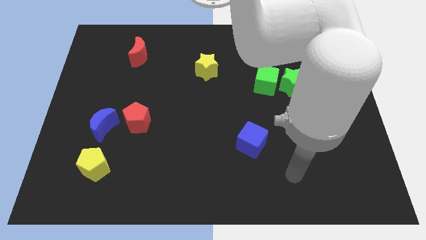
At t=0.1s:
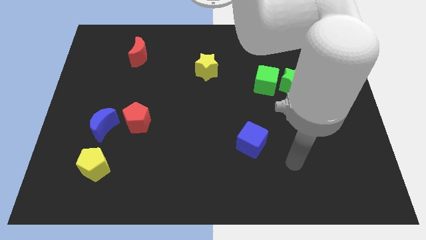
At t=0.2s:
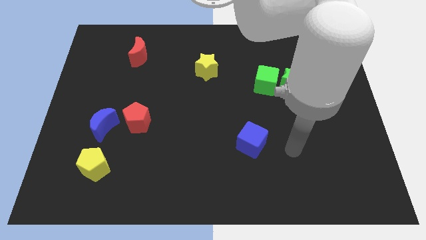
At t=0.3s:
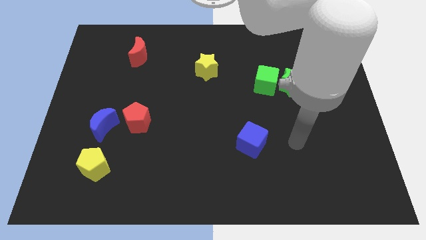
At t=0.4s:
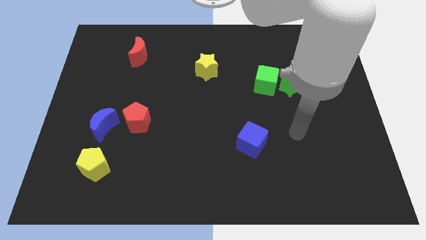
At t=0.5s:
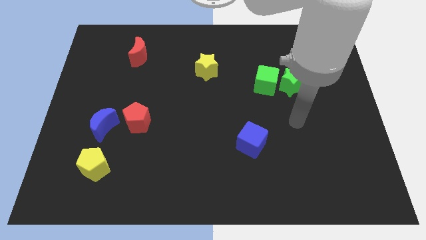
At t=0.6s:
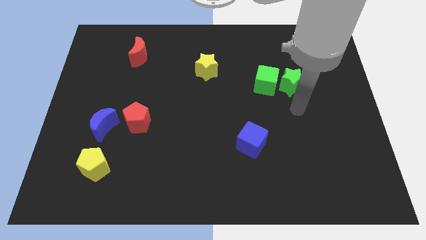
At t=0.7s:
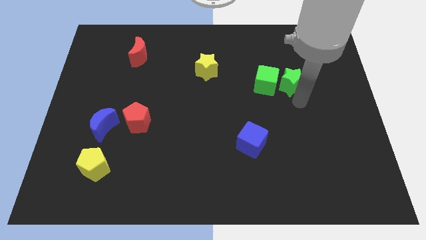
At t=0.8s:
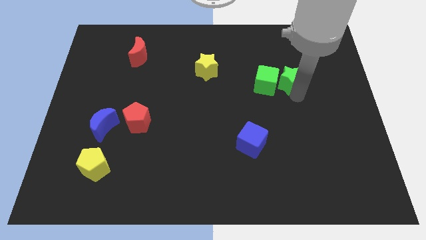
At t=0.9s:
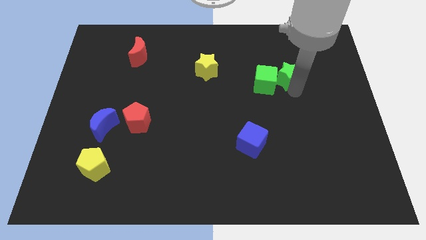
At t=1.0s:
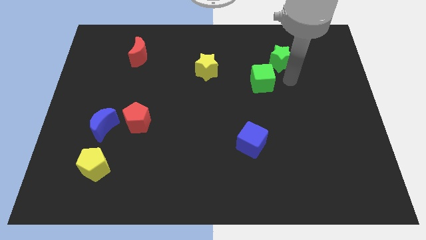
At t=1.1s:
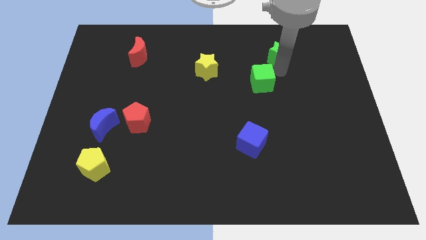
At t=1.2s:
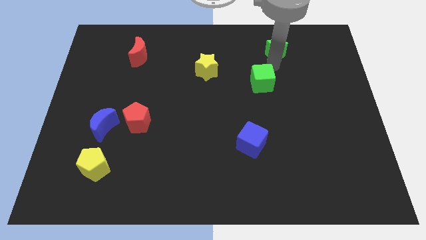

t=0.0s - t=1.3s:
pull the green cube apart from the green star

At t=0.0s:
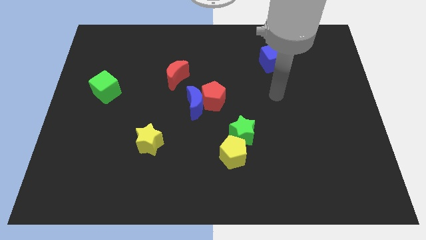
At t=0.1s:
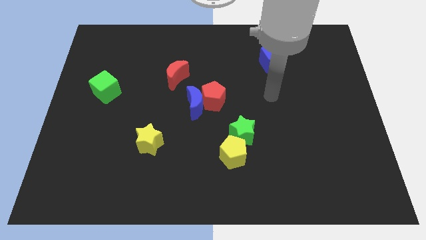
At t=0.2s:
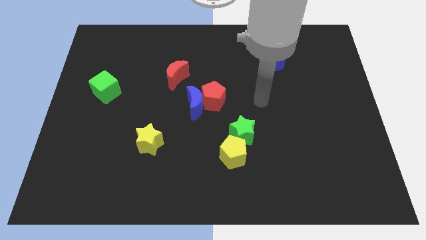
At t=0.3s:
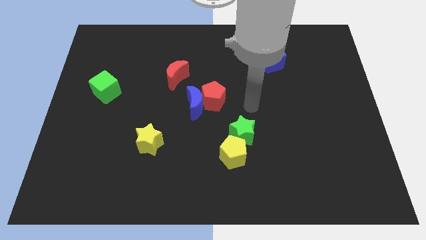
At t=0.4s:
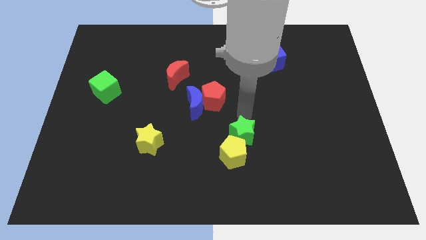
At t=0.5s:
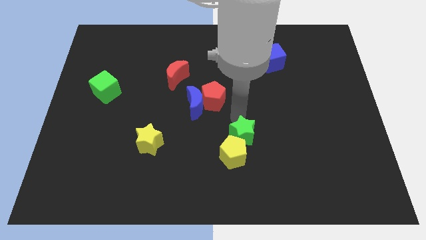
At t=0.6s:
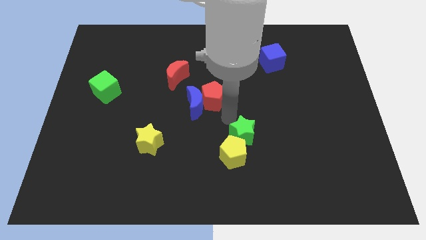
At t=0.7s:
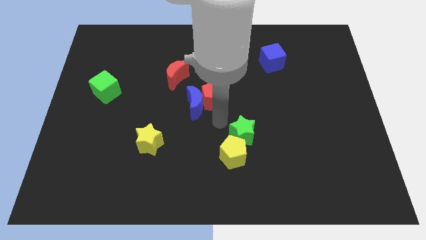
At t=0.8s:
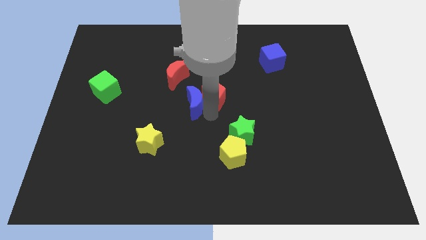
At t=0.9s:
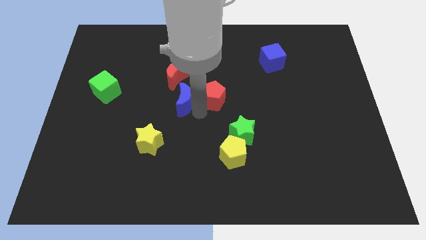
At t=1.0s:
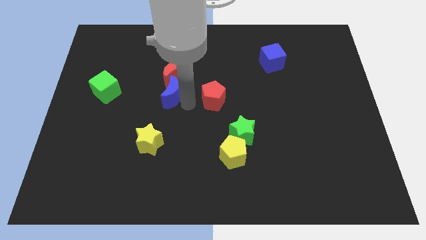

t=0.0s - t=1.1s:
separate the red pentagon from the blue moon

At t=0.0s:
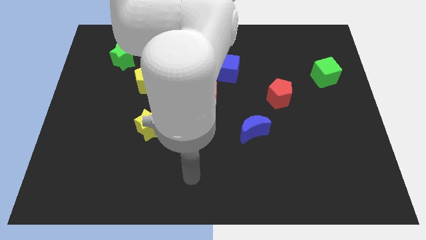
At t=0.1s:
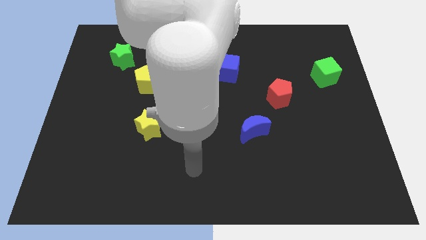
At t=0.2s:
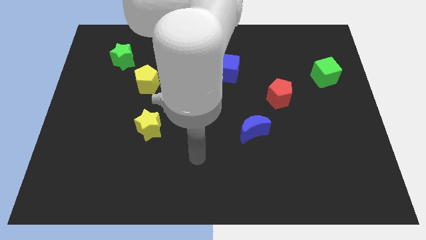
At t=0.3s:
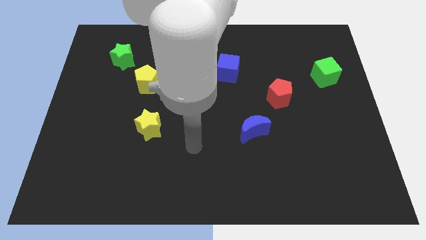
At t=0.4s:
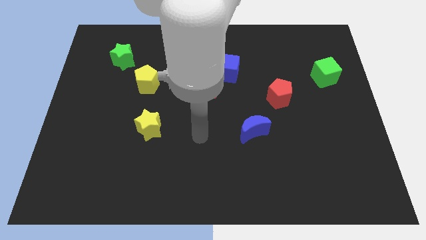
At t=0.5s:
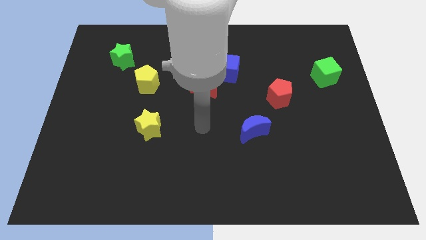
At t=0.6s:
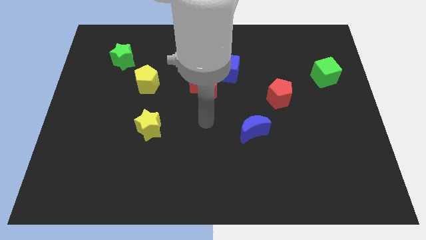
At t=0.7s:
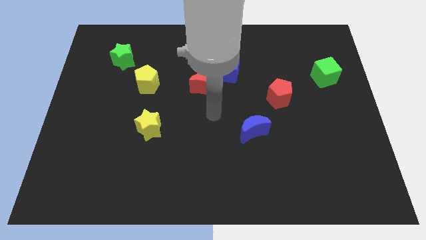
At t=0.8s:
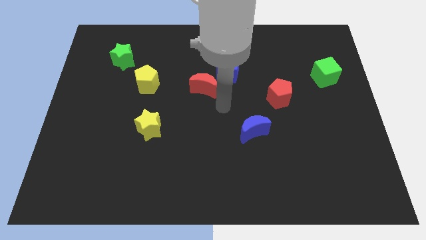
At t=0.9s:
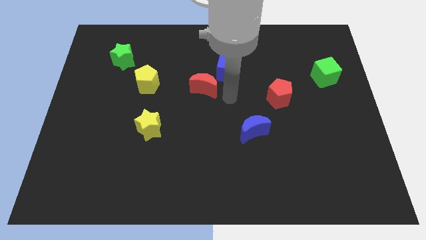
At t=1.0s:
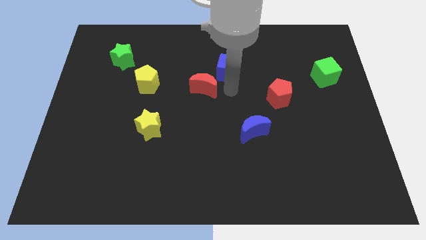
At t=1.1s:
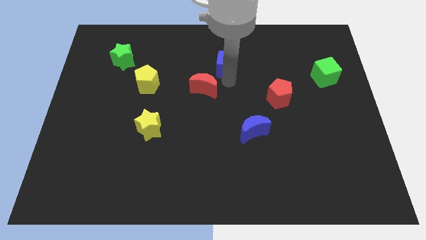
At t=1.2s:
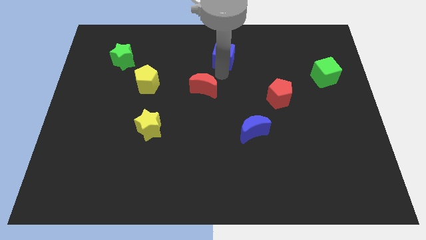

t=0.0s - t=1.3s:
move the red moon away from the blue cube

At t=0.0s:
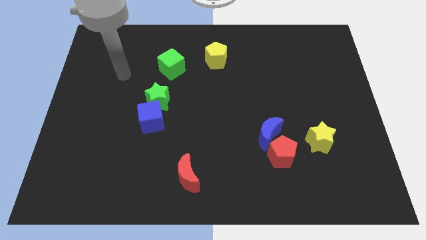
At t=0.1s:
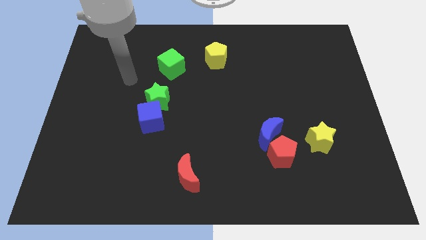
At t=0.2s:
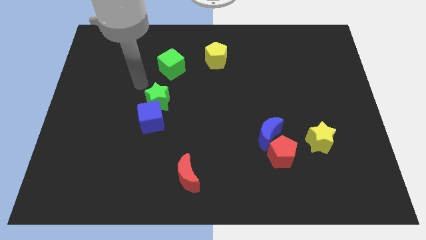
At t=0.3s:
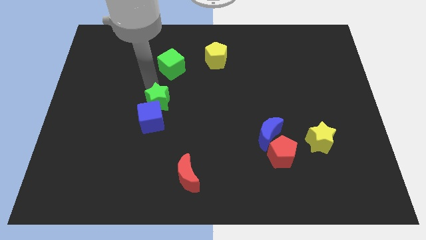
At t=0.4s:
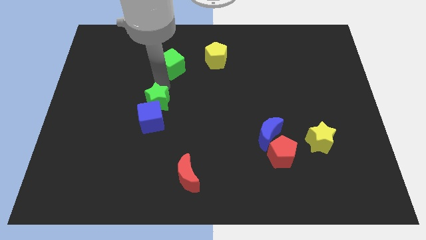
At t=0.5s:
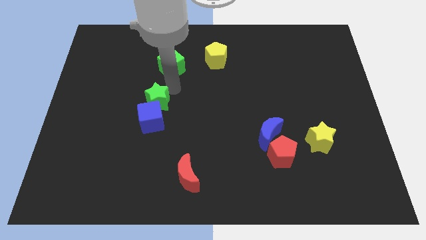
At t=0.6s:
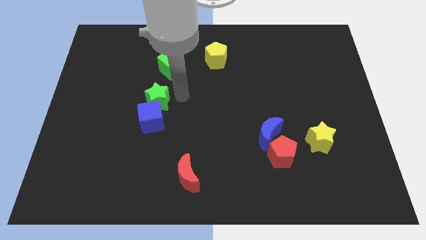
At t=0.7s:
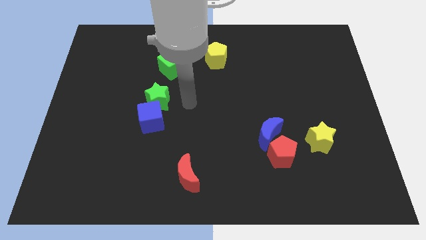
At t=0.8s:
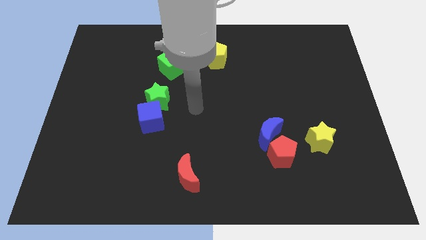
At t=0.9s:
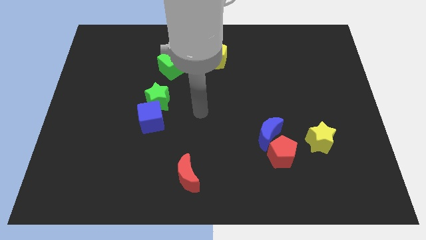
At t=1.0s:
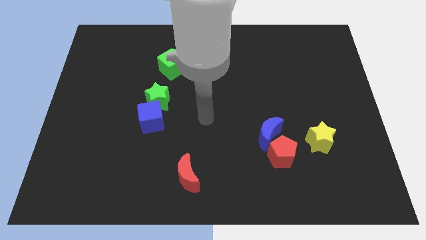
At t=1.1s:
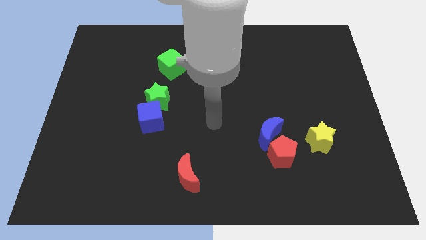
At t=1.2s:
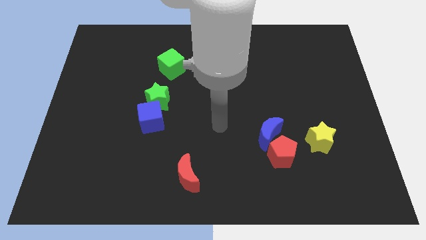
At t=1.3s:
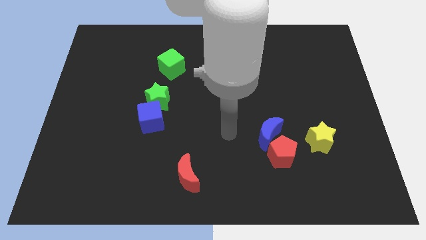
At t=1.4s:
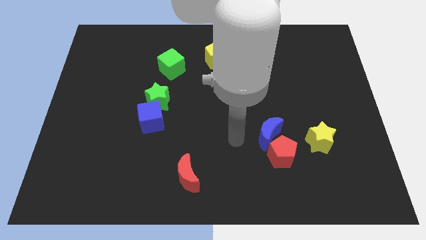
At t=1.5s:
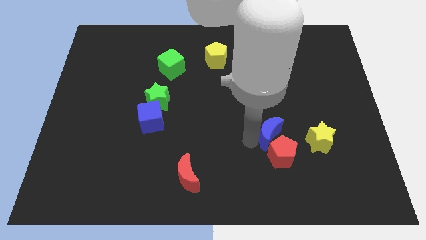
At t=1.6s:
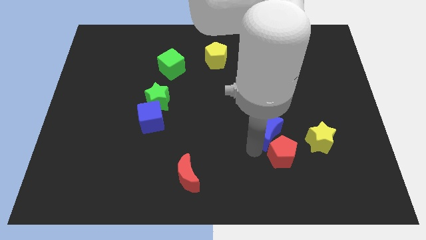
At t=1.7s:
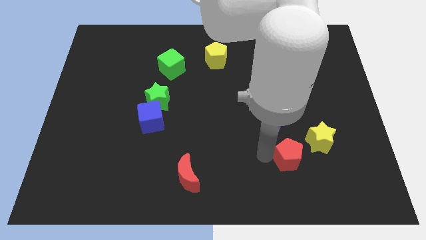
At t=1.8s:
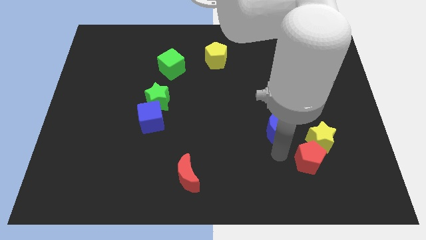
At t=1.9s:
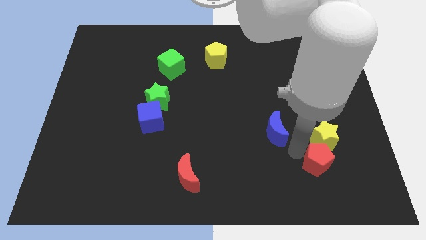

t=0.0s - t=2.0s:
pull the blue moon apart from the red pentagon

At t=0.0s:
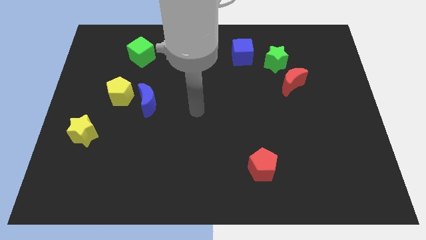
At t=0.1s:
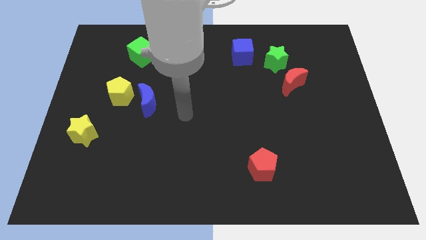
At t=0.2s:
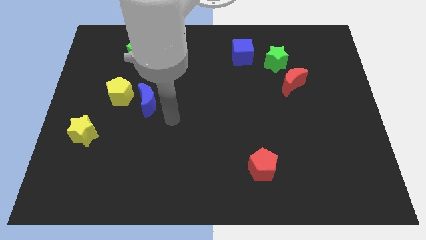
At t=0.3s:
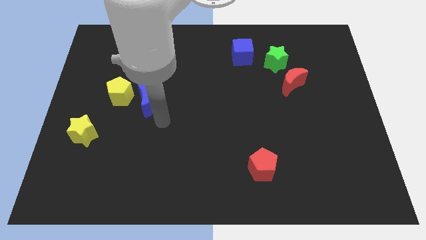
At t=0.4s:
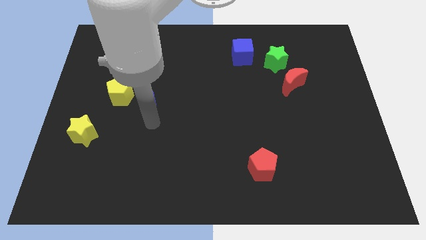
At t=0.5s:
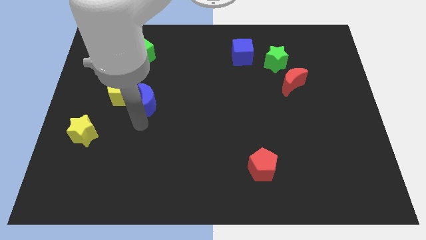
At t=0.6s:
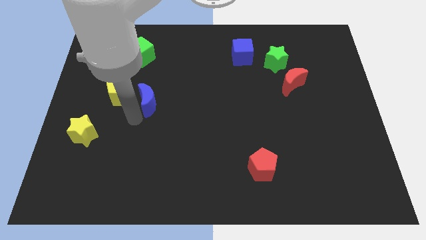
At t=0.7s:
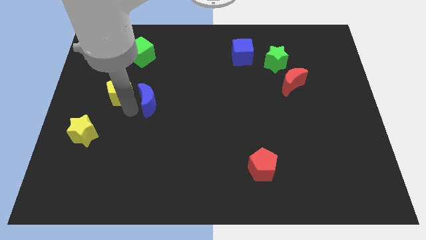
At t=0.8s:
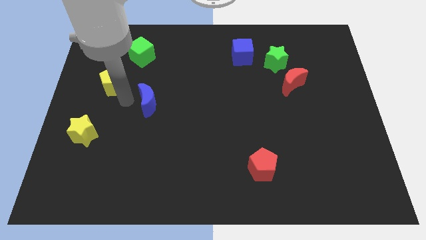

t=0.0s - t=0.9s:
pull the blue moon apart from the yellow pentagon

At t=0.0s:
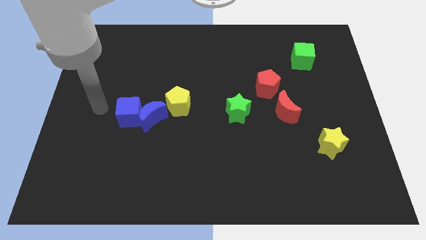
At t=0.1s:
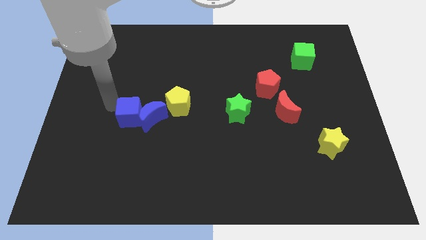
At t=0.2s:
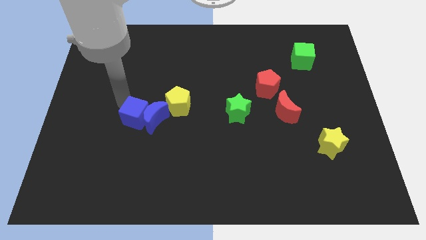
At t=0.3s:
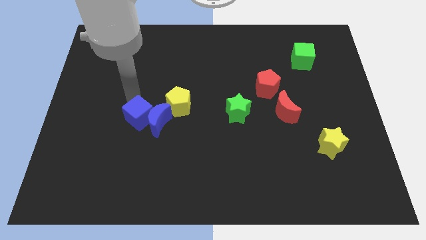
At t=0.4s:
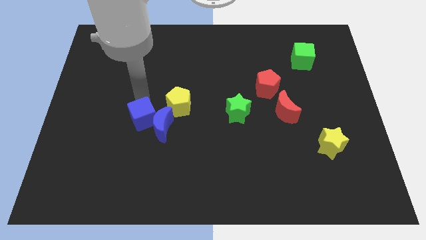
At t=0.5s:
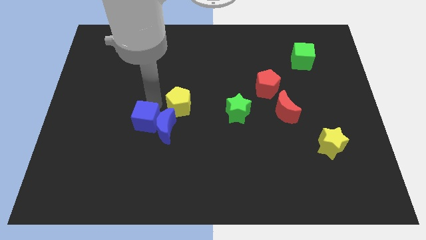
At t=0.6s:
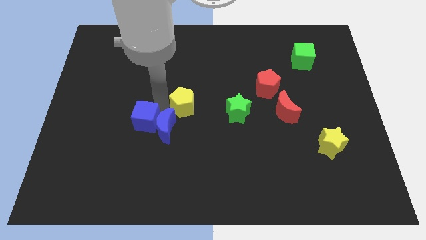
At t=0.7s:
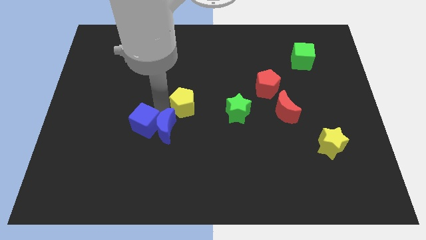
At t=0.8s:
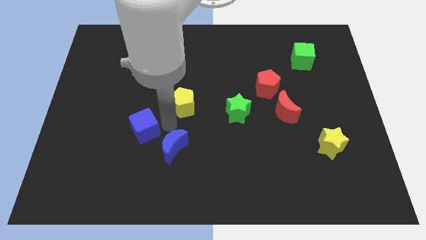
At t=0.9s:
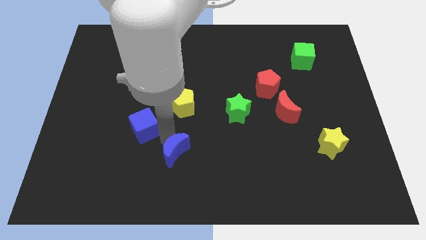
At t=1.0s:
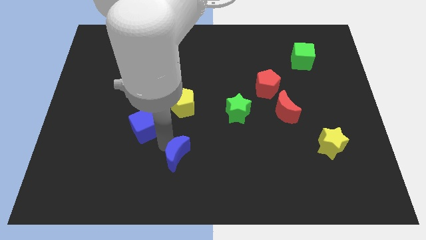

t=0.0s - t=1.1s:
separate the blue cube from the blue moon

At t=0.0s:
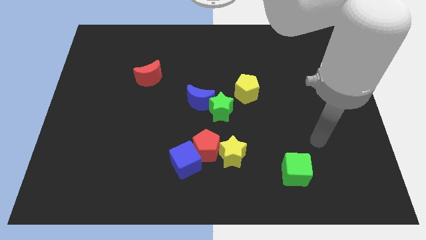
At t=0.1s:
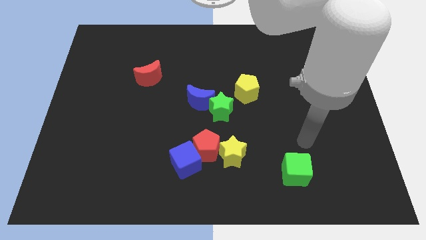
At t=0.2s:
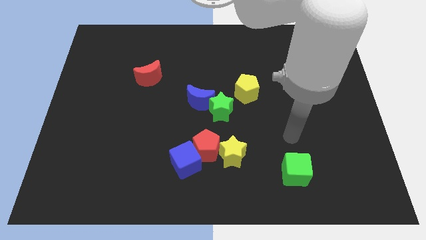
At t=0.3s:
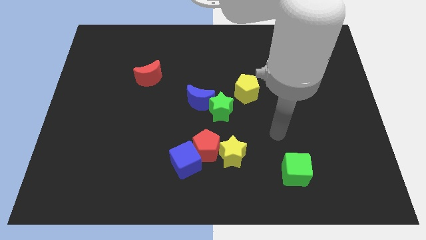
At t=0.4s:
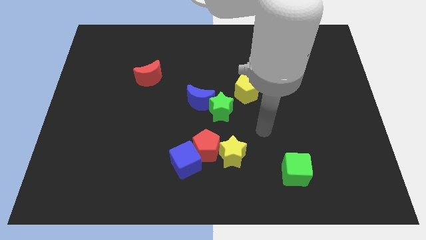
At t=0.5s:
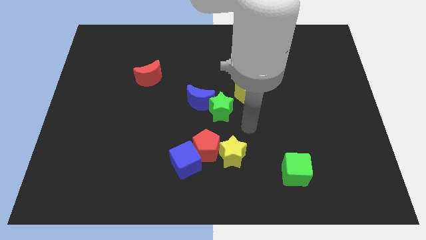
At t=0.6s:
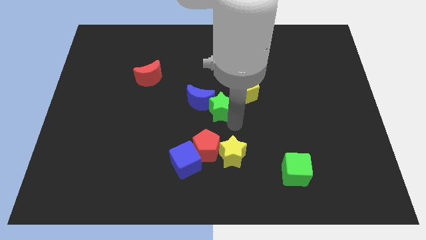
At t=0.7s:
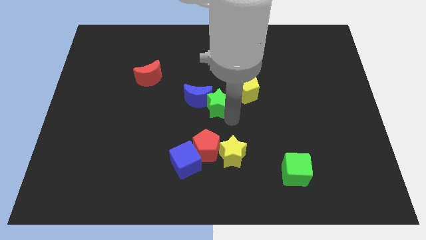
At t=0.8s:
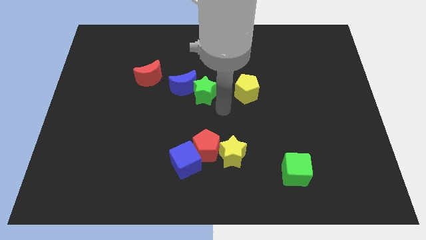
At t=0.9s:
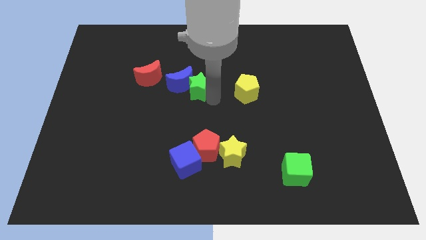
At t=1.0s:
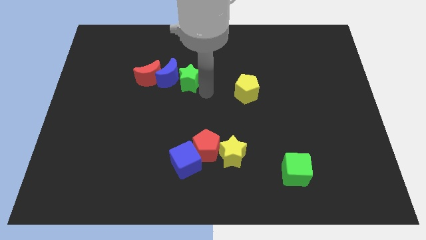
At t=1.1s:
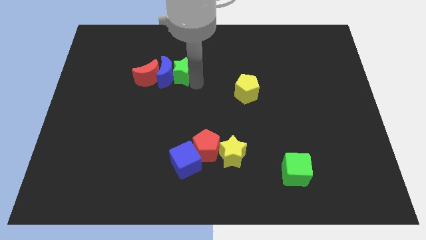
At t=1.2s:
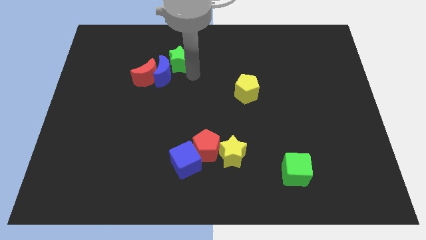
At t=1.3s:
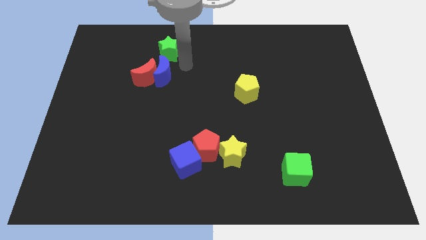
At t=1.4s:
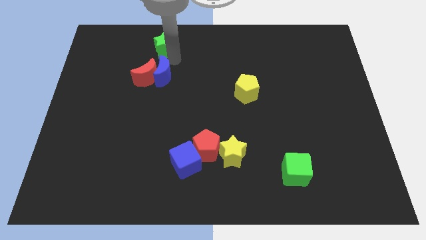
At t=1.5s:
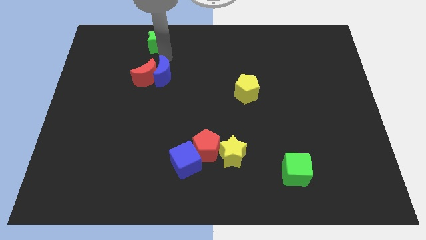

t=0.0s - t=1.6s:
pull the blue moon apart from the green star
